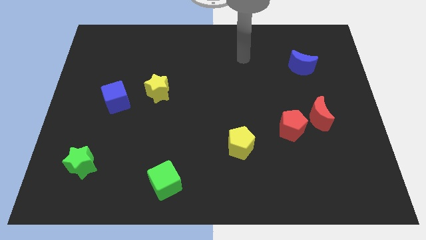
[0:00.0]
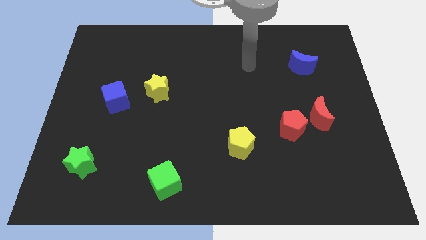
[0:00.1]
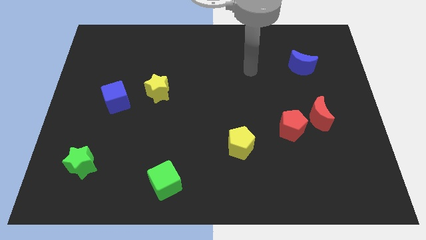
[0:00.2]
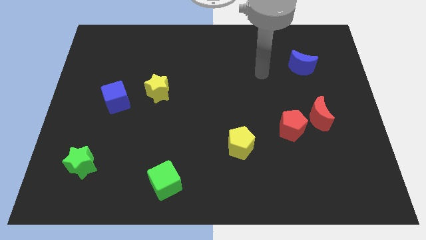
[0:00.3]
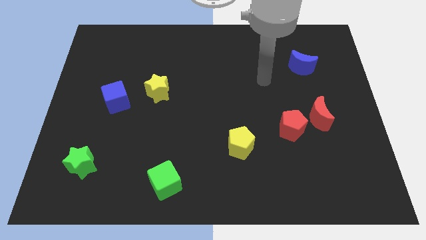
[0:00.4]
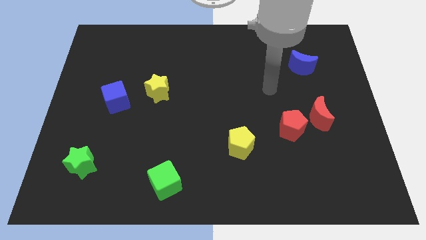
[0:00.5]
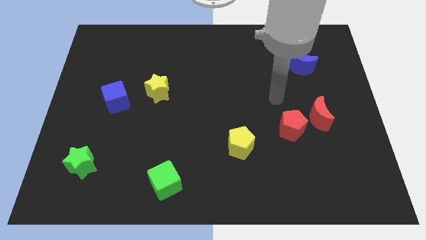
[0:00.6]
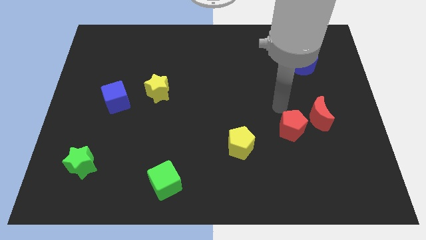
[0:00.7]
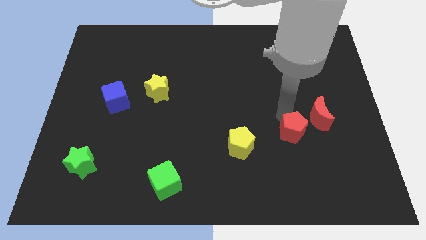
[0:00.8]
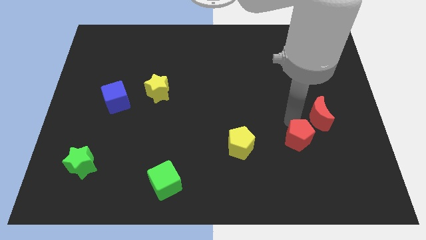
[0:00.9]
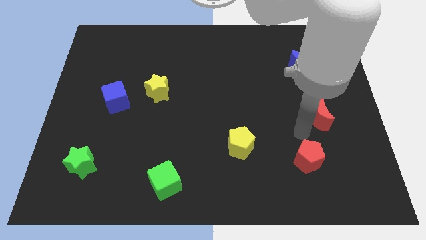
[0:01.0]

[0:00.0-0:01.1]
pull the red moon apart from the red pentagon

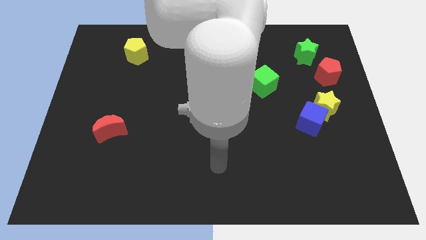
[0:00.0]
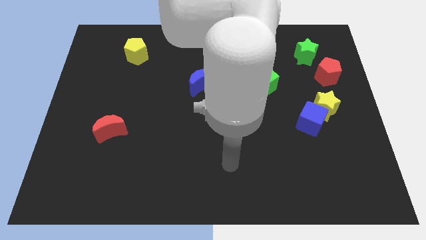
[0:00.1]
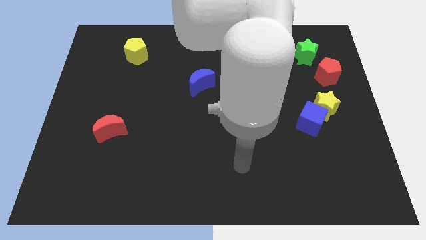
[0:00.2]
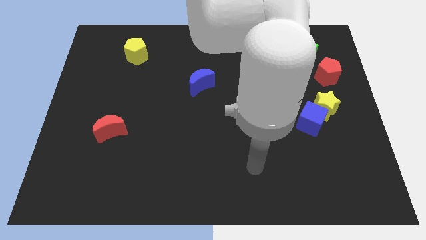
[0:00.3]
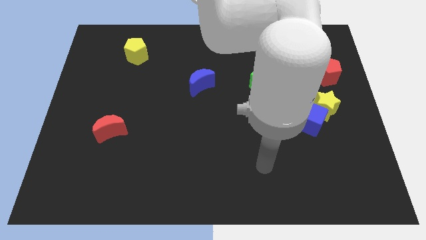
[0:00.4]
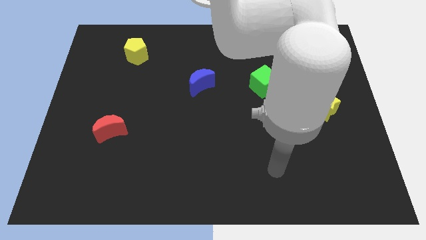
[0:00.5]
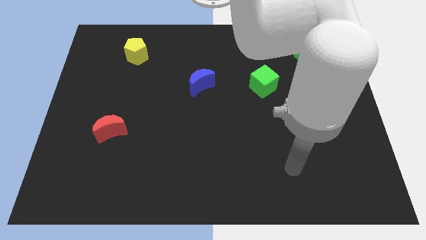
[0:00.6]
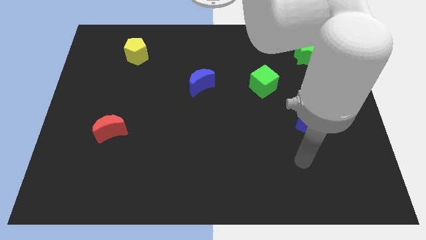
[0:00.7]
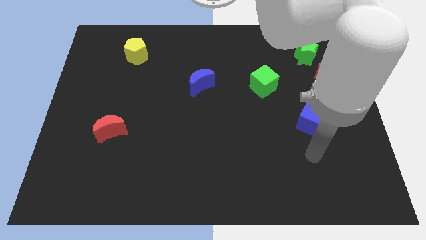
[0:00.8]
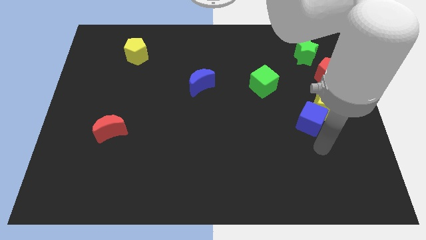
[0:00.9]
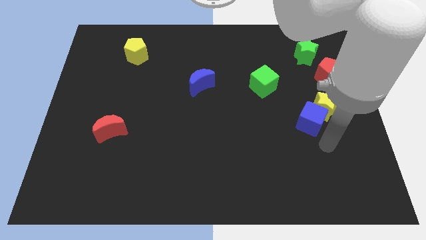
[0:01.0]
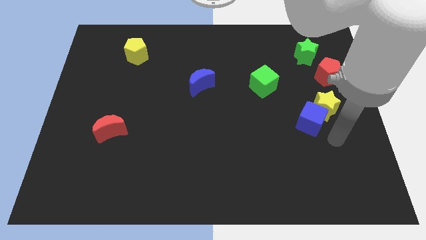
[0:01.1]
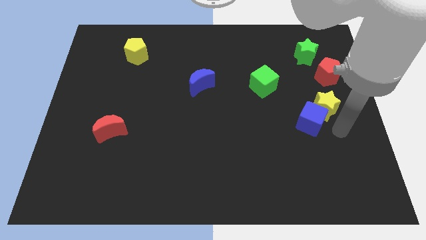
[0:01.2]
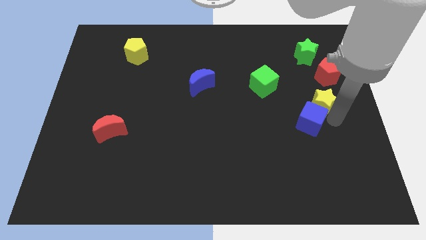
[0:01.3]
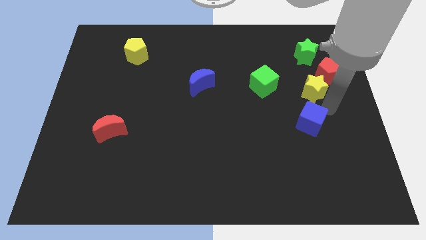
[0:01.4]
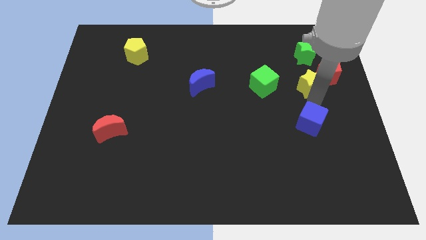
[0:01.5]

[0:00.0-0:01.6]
move the blue cube away from the yellow star

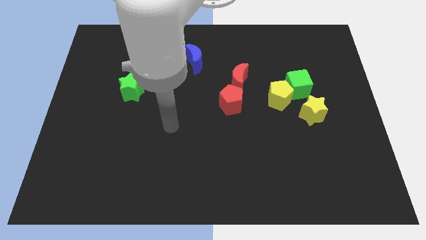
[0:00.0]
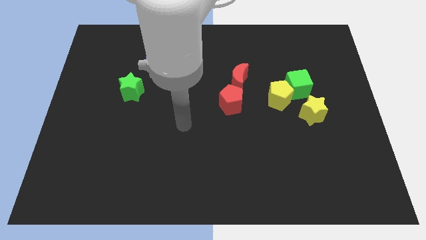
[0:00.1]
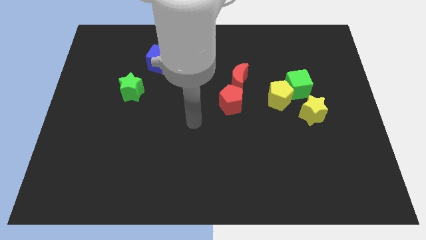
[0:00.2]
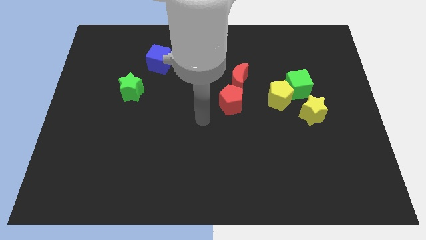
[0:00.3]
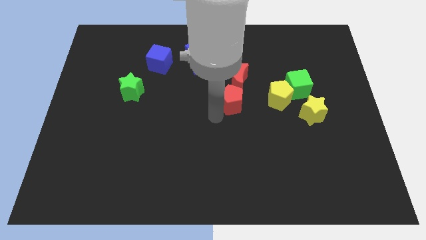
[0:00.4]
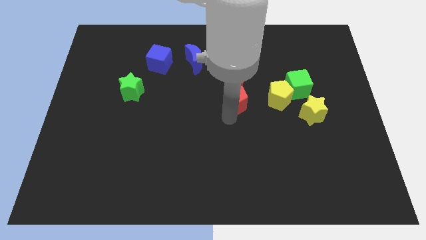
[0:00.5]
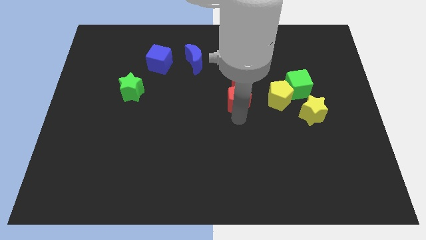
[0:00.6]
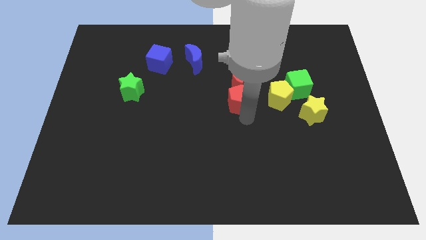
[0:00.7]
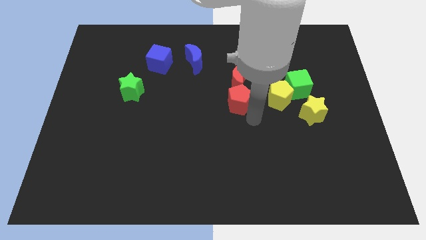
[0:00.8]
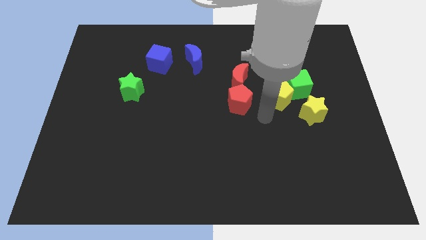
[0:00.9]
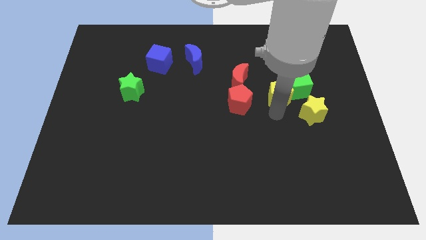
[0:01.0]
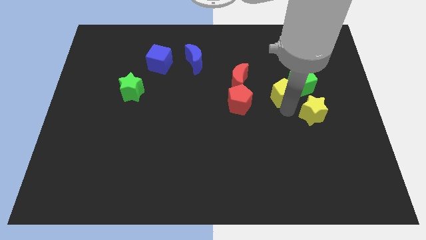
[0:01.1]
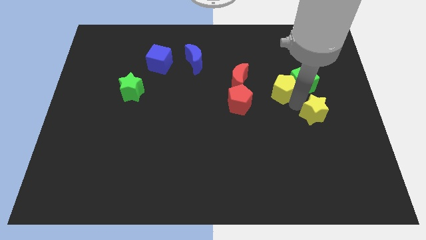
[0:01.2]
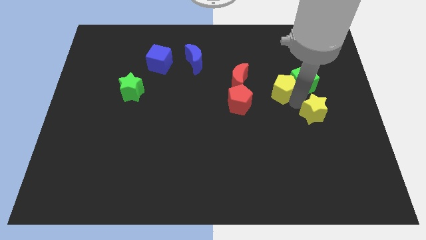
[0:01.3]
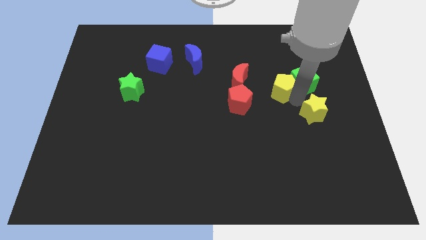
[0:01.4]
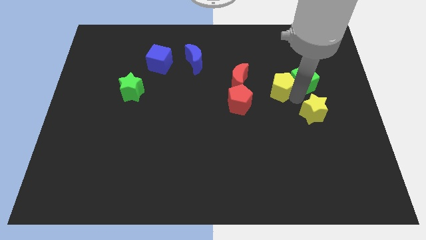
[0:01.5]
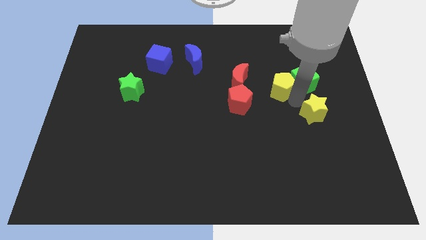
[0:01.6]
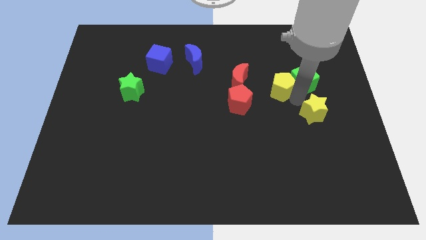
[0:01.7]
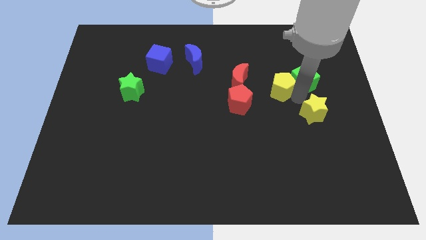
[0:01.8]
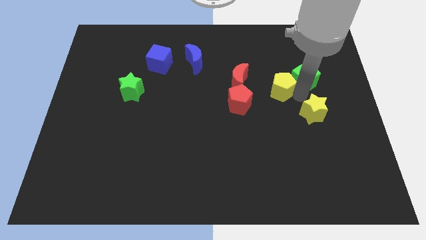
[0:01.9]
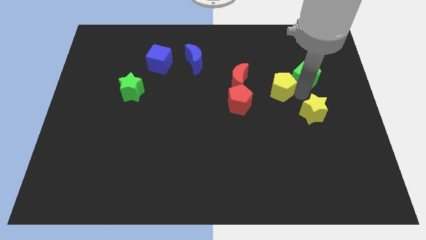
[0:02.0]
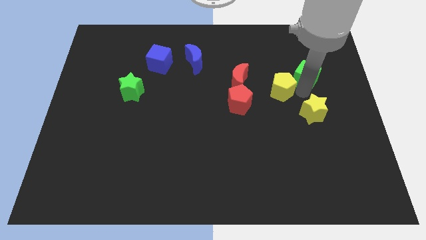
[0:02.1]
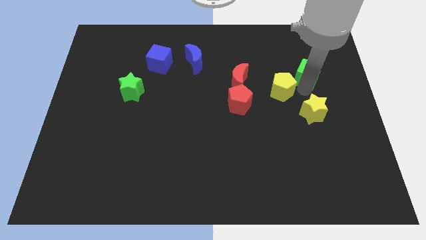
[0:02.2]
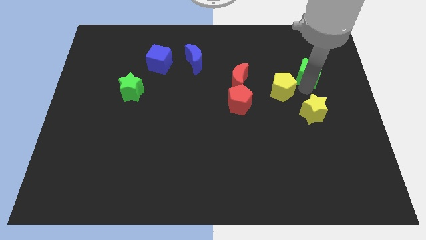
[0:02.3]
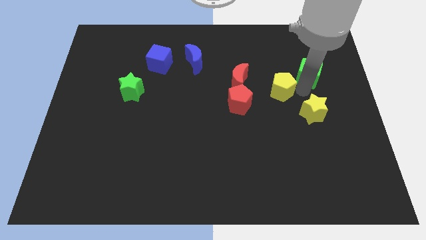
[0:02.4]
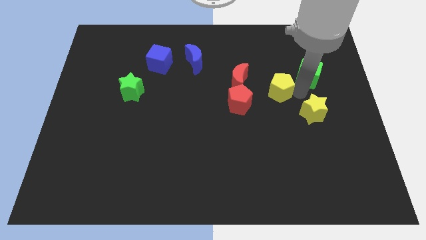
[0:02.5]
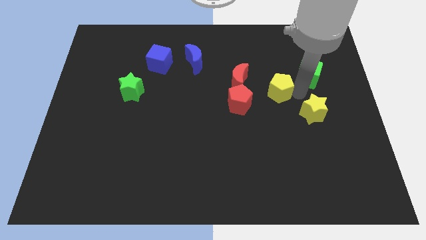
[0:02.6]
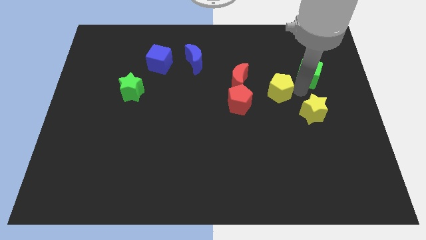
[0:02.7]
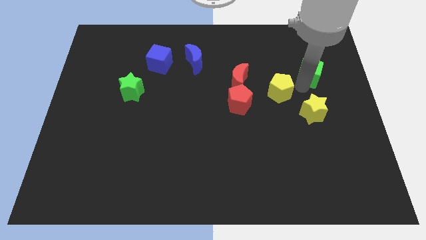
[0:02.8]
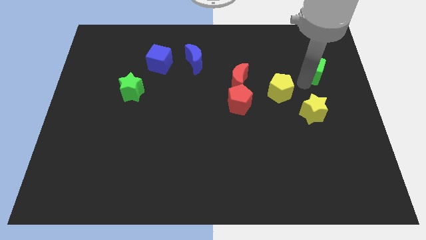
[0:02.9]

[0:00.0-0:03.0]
move the green cube away from the yellow pentagon and yellow star

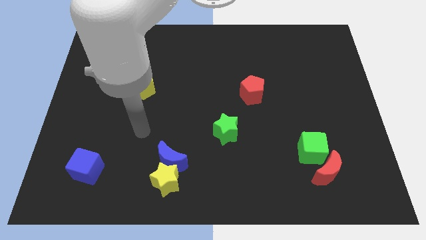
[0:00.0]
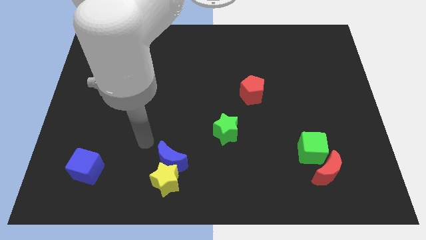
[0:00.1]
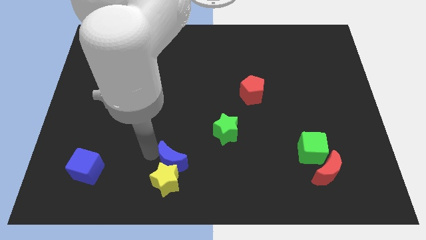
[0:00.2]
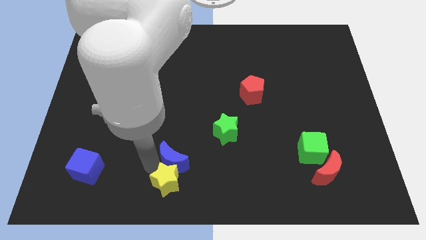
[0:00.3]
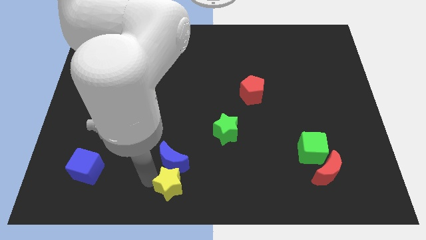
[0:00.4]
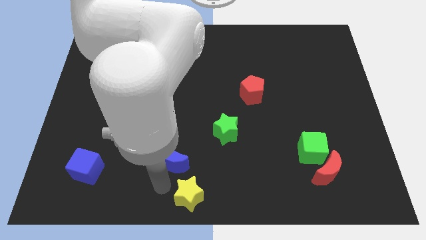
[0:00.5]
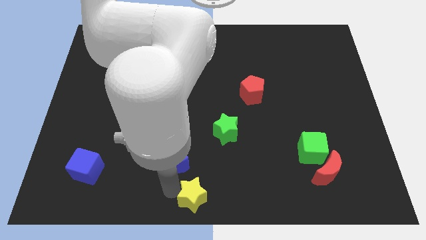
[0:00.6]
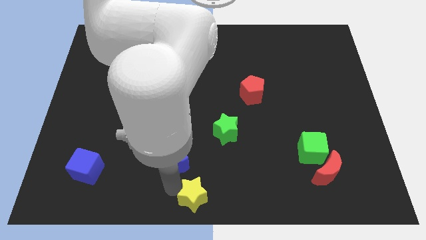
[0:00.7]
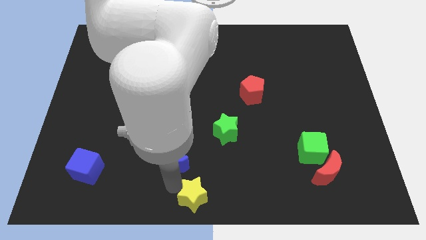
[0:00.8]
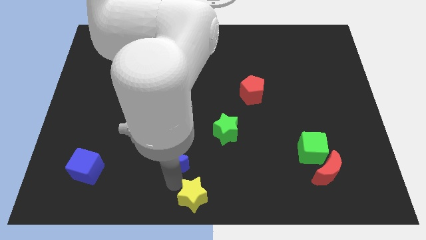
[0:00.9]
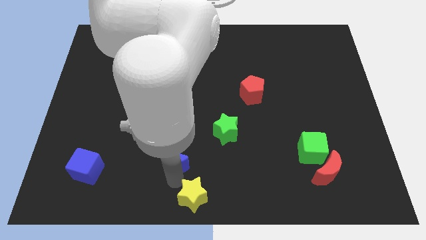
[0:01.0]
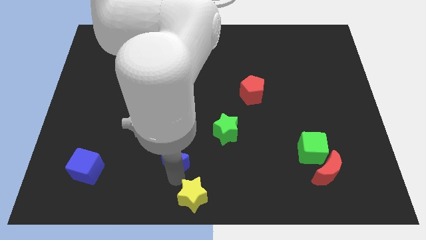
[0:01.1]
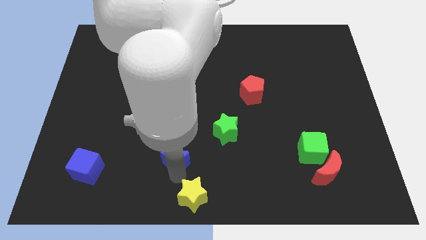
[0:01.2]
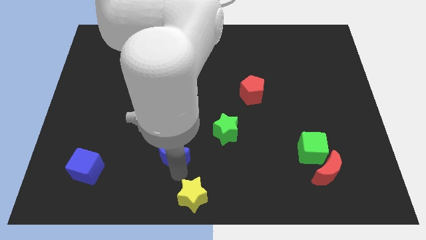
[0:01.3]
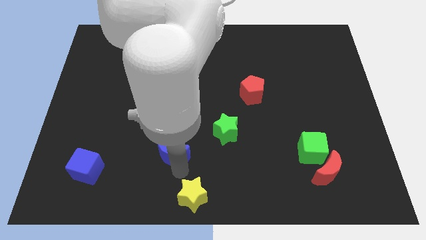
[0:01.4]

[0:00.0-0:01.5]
move the blue moon away from the yellow star

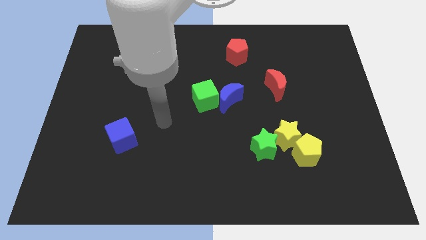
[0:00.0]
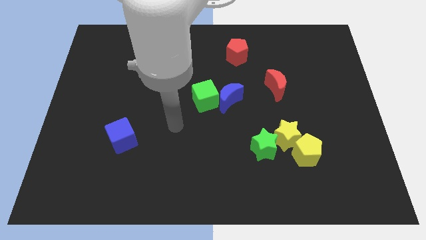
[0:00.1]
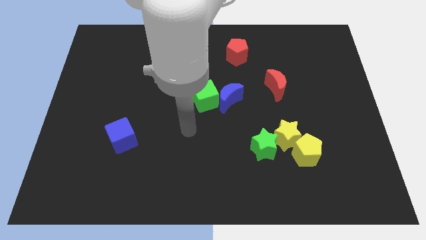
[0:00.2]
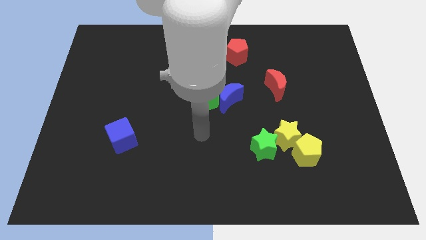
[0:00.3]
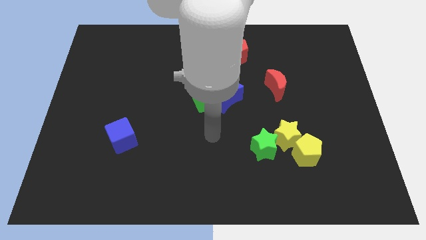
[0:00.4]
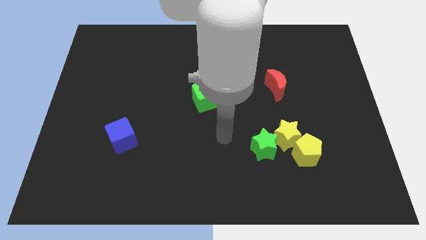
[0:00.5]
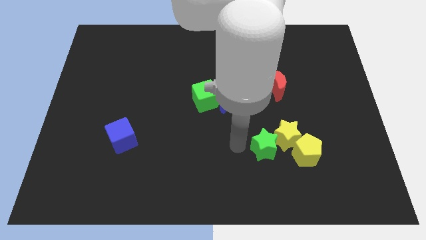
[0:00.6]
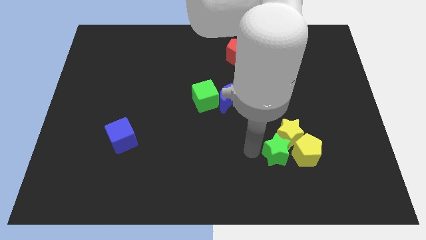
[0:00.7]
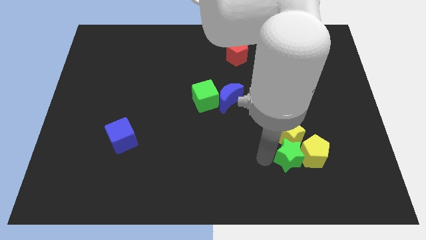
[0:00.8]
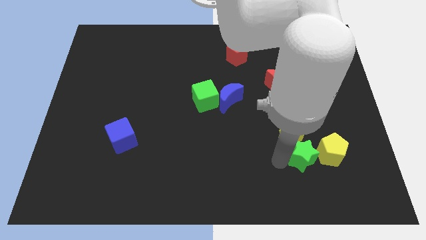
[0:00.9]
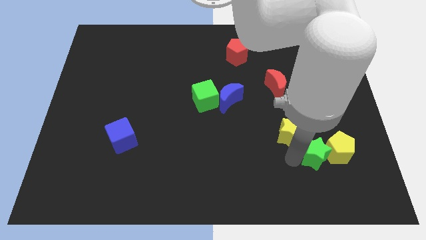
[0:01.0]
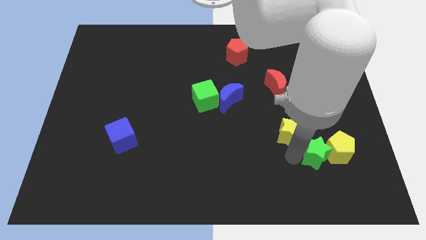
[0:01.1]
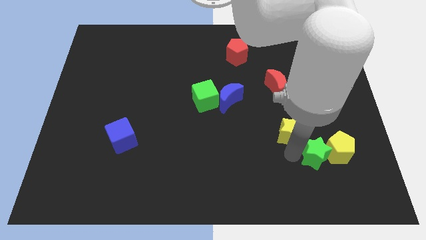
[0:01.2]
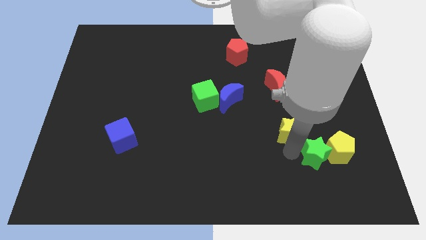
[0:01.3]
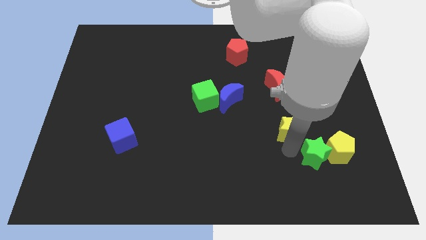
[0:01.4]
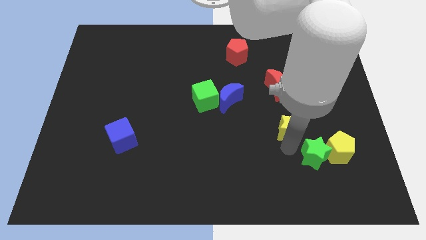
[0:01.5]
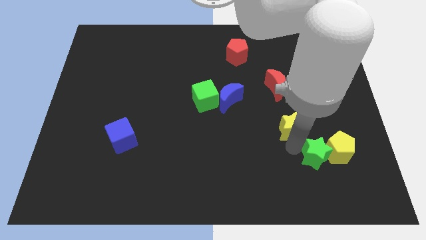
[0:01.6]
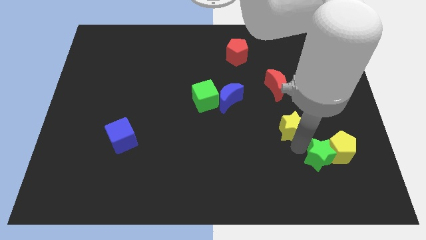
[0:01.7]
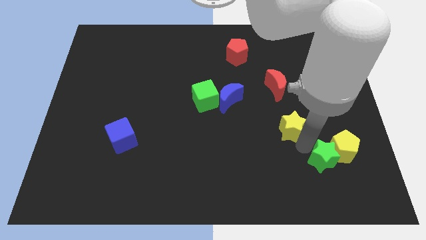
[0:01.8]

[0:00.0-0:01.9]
separate the yellow star from the green star and yellow pentagon

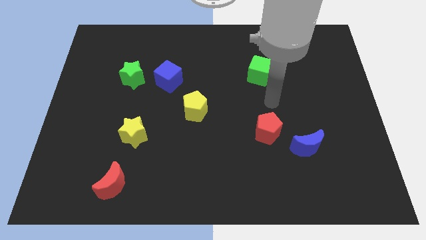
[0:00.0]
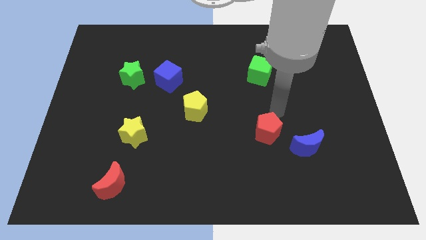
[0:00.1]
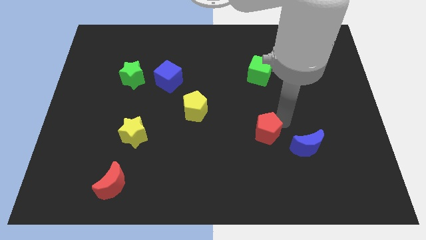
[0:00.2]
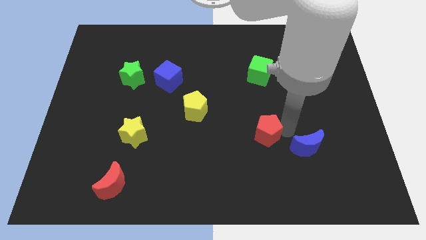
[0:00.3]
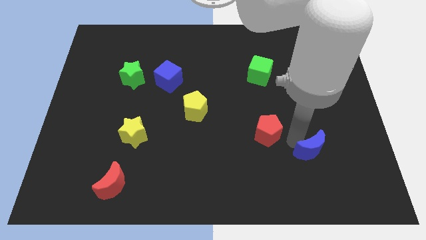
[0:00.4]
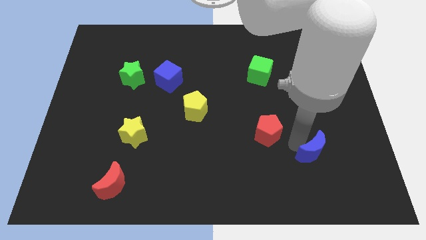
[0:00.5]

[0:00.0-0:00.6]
separate the red pentagon from the blue moon
